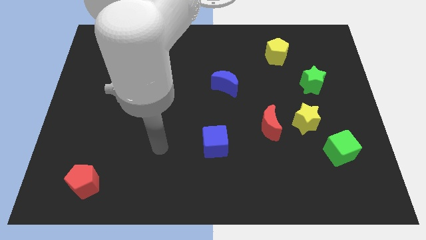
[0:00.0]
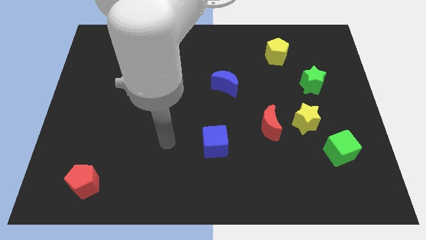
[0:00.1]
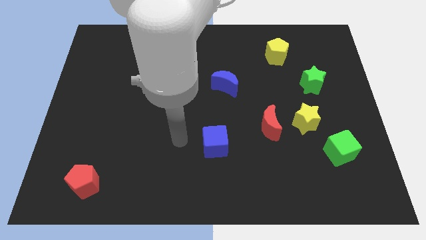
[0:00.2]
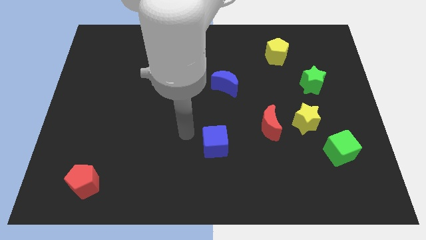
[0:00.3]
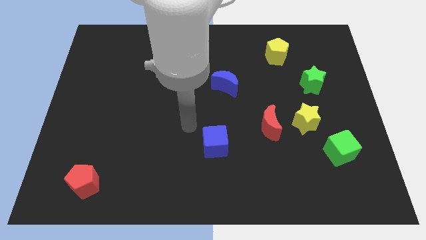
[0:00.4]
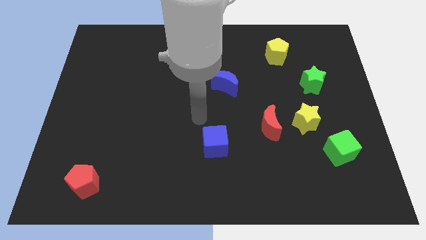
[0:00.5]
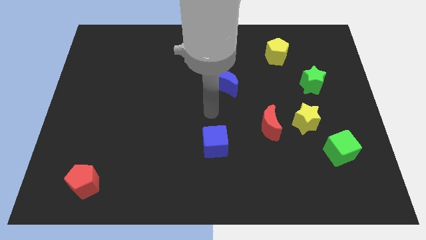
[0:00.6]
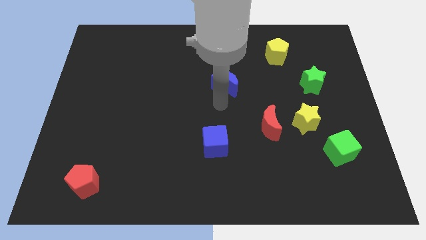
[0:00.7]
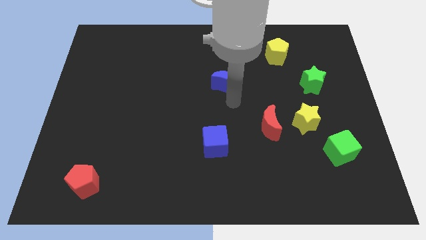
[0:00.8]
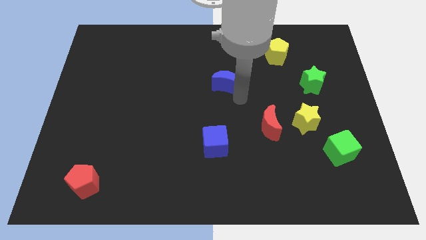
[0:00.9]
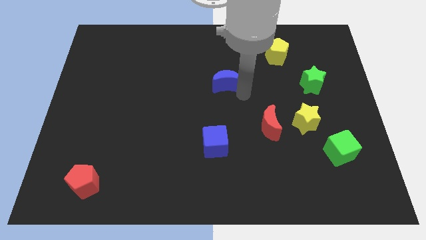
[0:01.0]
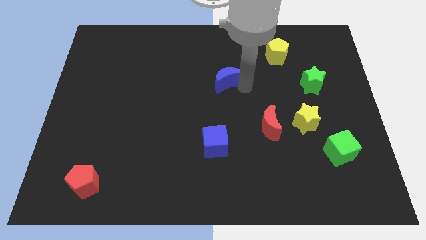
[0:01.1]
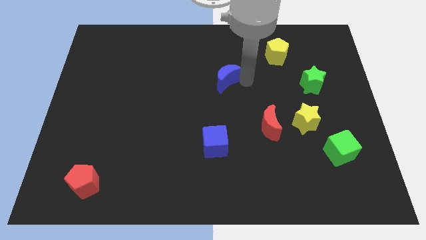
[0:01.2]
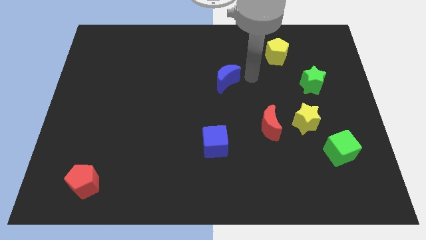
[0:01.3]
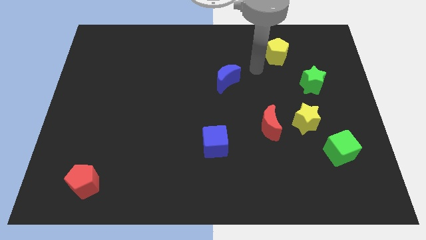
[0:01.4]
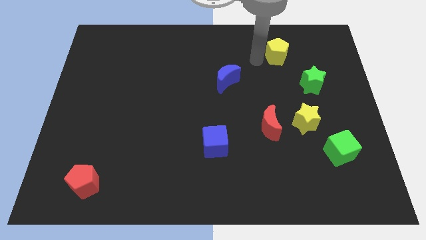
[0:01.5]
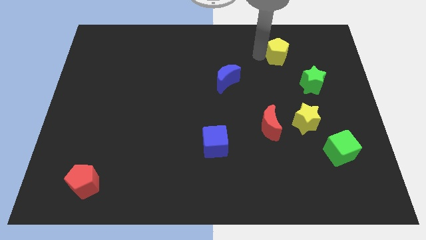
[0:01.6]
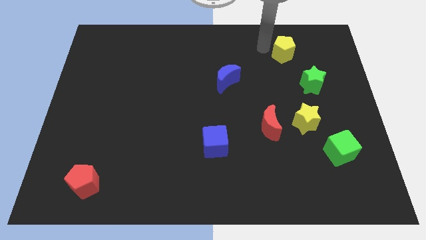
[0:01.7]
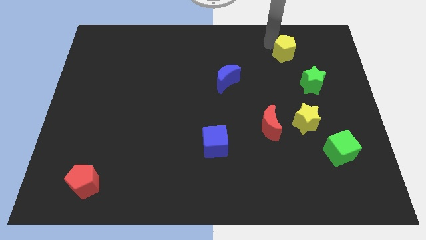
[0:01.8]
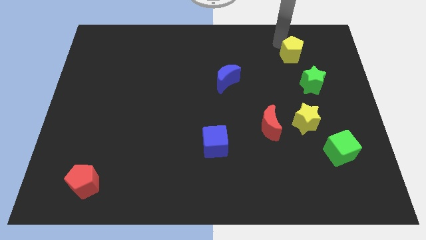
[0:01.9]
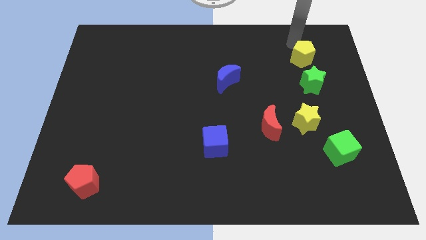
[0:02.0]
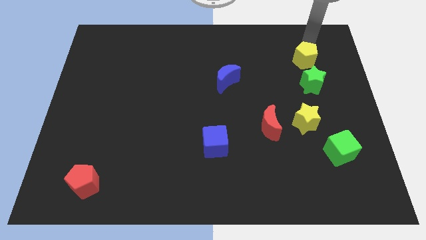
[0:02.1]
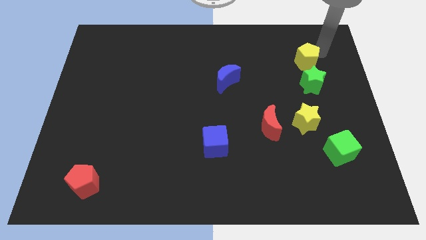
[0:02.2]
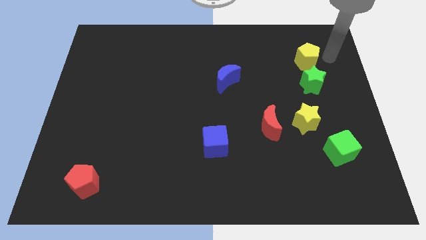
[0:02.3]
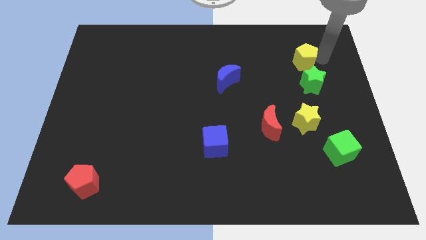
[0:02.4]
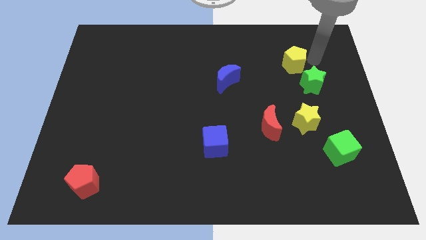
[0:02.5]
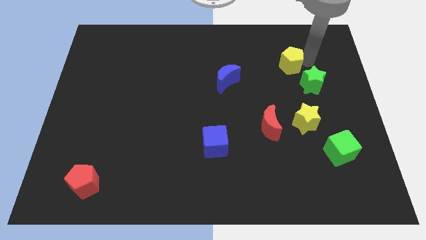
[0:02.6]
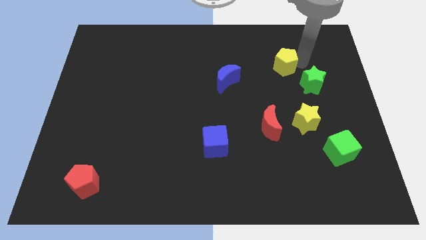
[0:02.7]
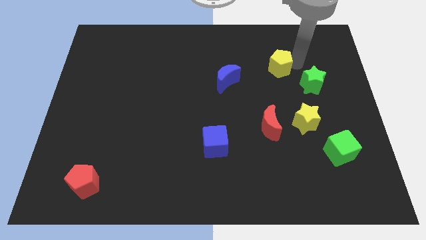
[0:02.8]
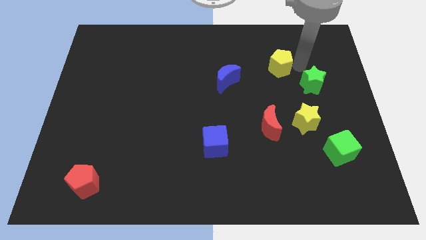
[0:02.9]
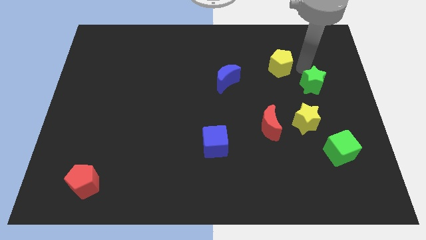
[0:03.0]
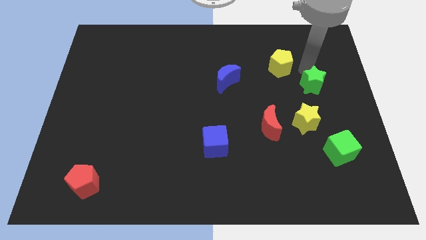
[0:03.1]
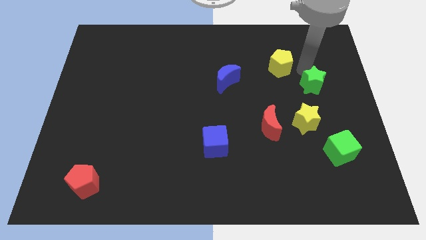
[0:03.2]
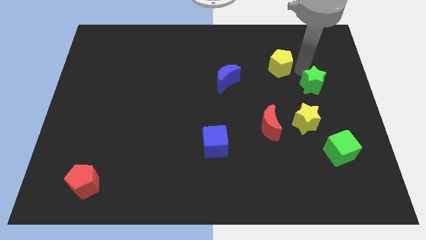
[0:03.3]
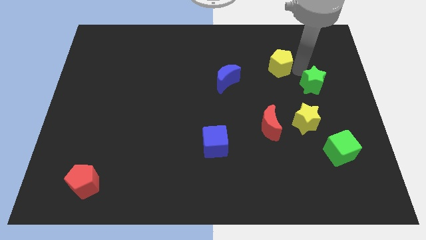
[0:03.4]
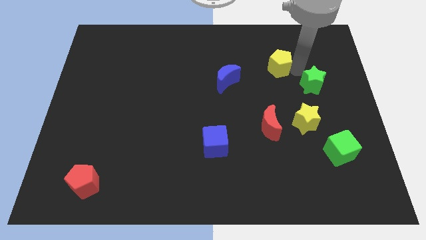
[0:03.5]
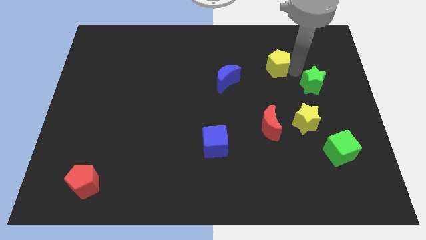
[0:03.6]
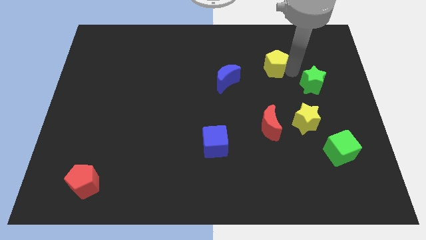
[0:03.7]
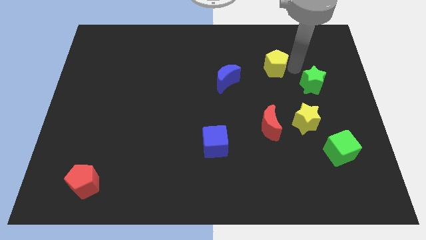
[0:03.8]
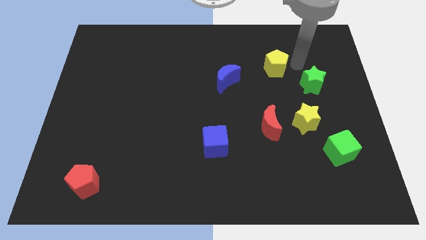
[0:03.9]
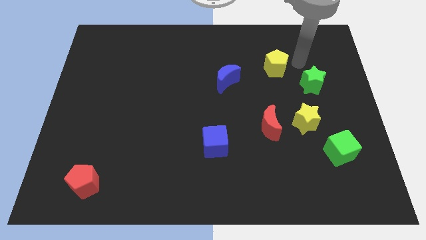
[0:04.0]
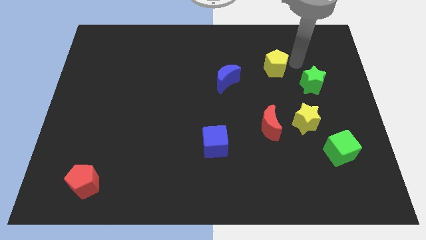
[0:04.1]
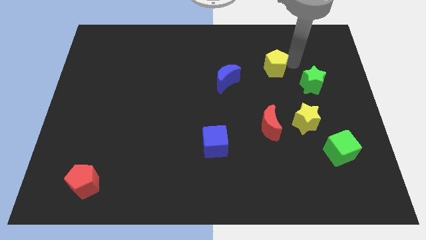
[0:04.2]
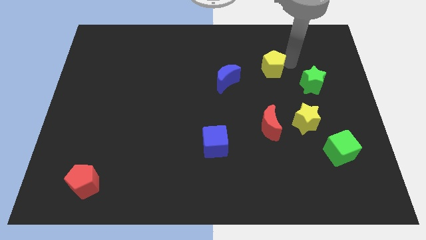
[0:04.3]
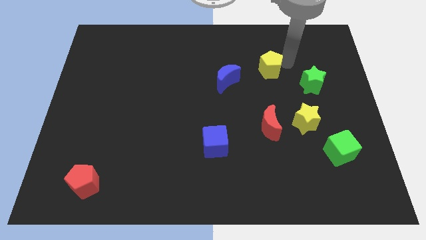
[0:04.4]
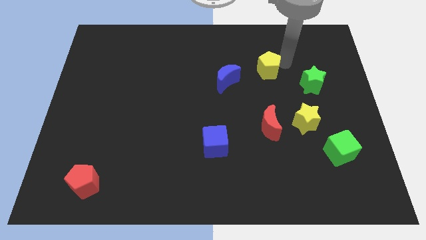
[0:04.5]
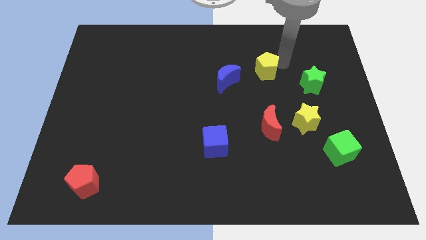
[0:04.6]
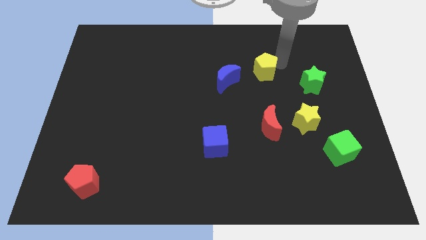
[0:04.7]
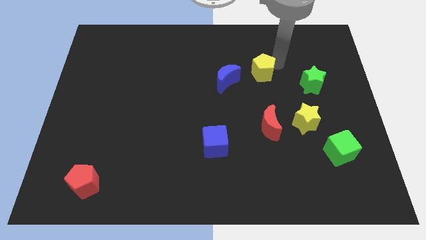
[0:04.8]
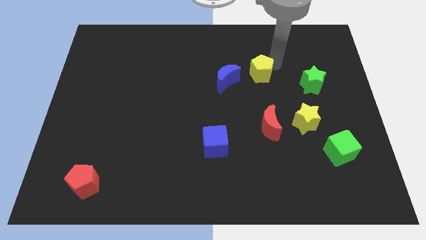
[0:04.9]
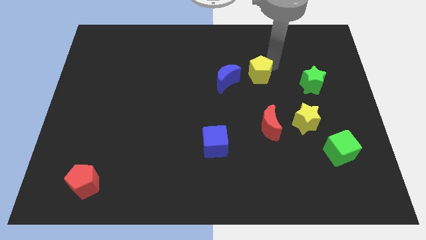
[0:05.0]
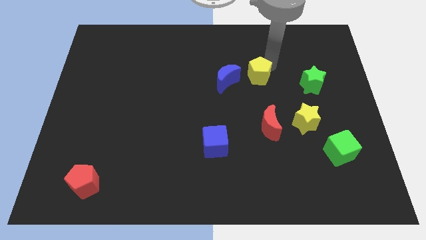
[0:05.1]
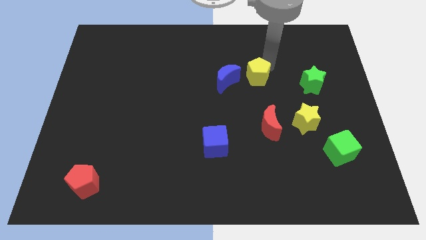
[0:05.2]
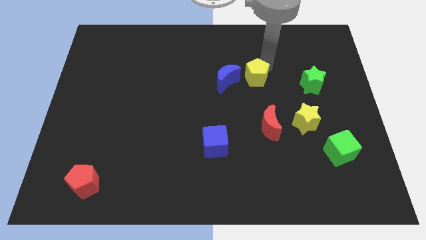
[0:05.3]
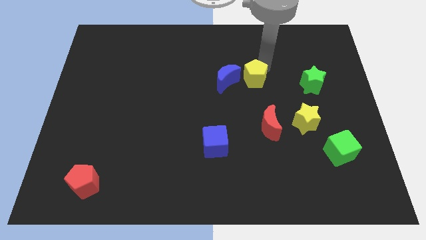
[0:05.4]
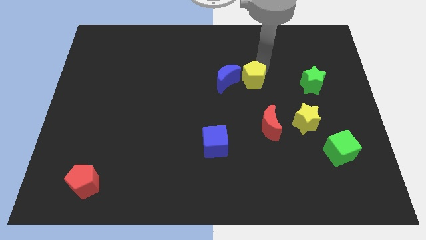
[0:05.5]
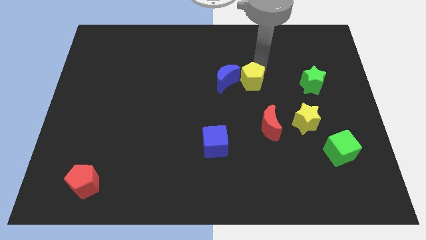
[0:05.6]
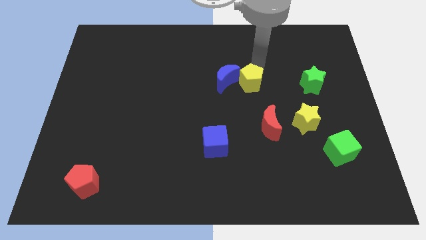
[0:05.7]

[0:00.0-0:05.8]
put the yellow pentagon towards the blue moon

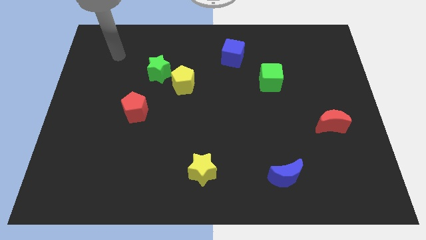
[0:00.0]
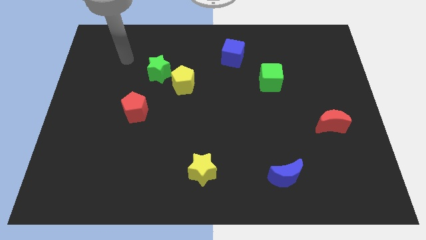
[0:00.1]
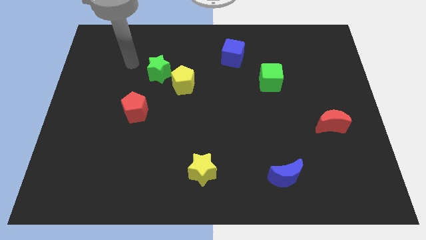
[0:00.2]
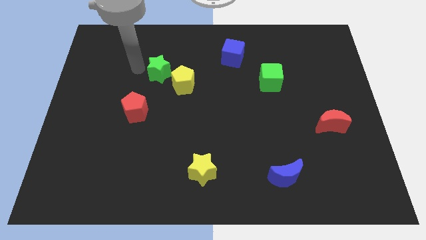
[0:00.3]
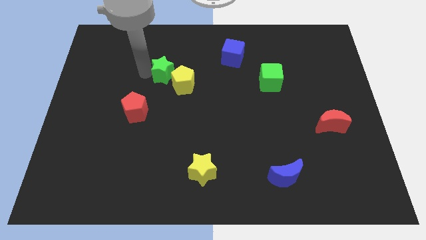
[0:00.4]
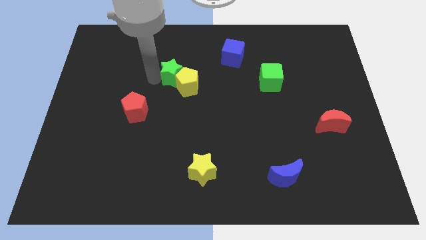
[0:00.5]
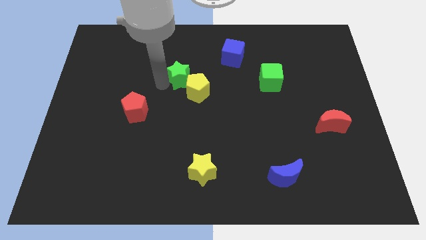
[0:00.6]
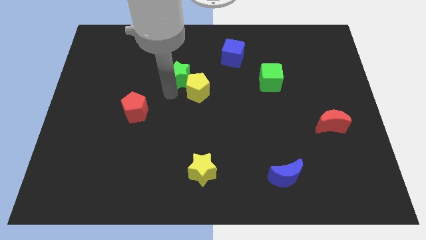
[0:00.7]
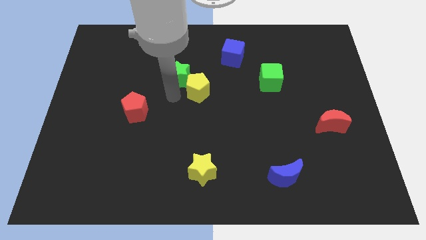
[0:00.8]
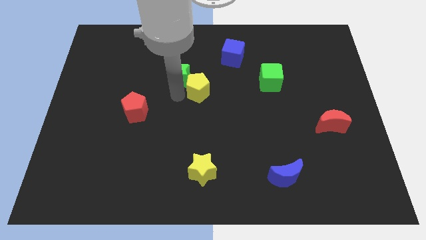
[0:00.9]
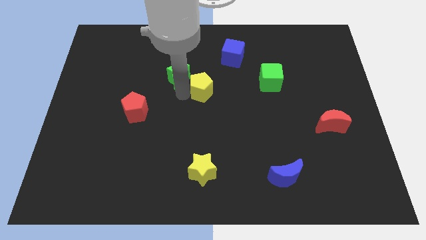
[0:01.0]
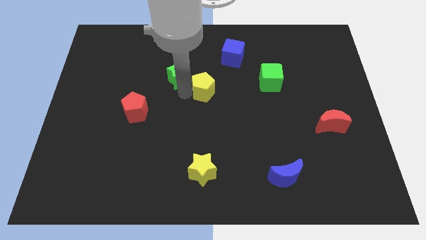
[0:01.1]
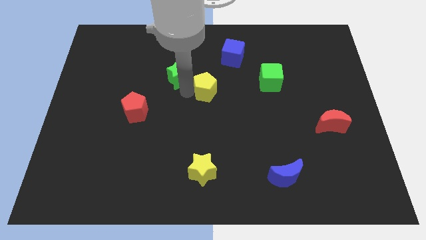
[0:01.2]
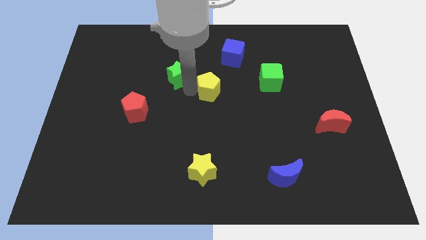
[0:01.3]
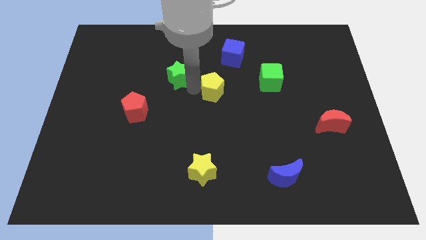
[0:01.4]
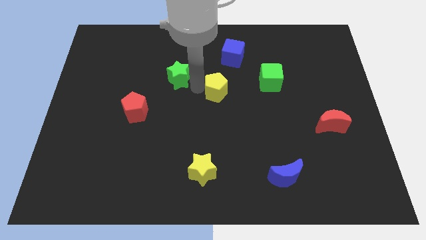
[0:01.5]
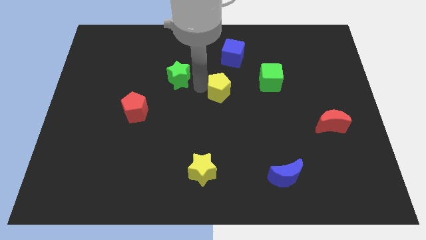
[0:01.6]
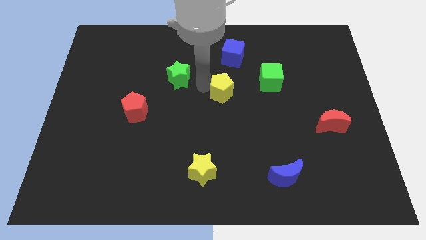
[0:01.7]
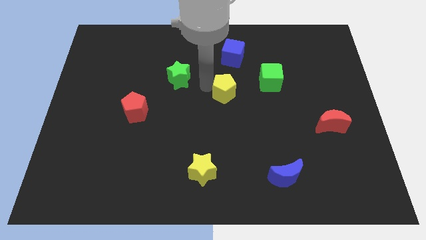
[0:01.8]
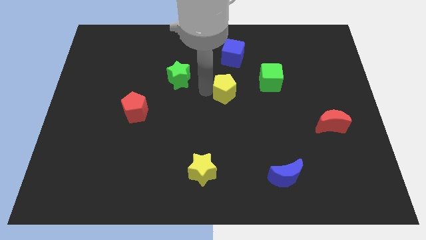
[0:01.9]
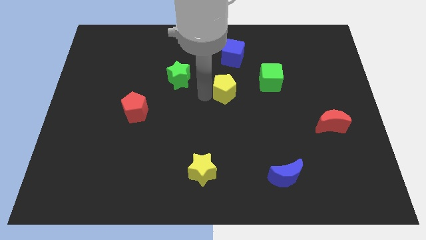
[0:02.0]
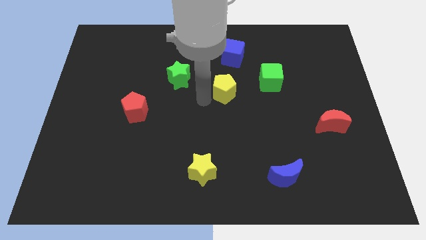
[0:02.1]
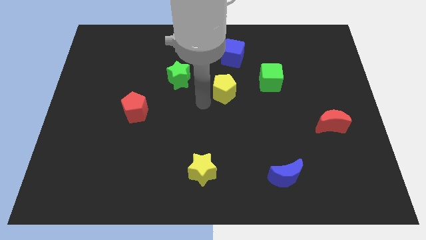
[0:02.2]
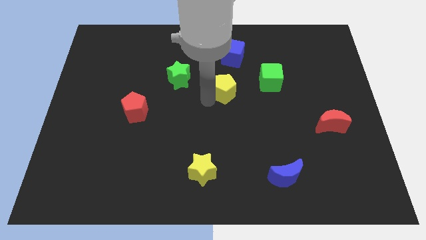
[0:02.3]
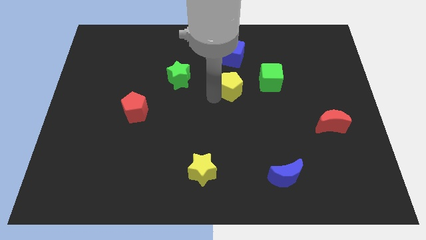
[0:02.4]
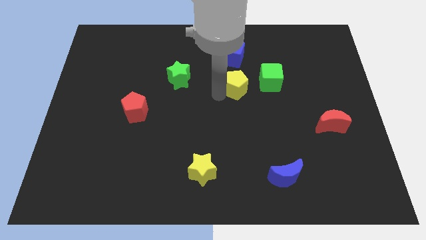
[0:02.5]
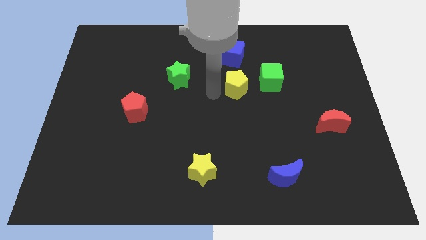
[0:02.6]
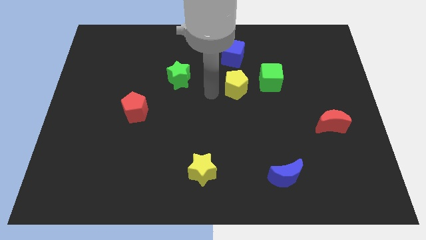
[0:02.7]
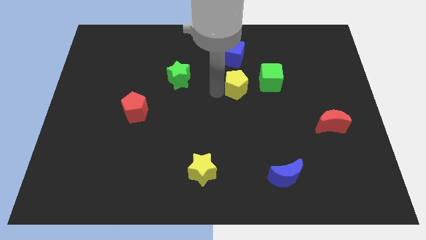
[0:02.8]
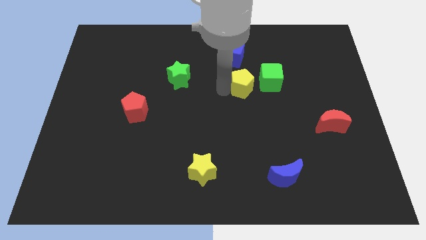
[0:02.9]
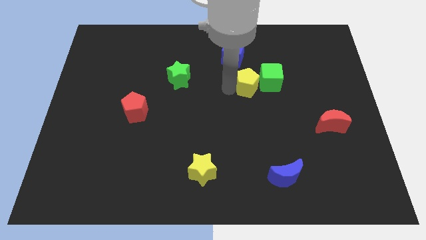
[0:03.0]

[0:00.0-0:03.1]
put the yellow pentagon next to the green cube
